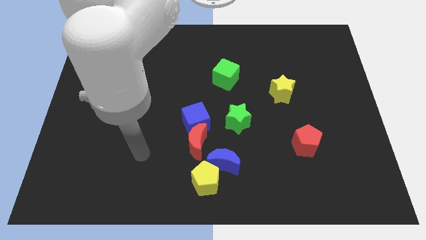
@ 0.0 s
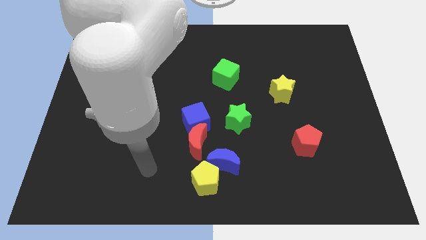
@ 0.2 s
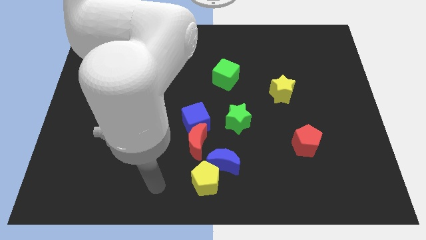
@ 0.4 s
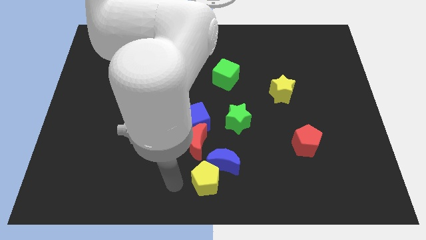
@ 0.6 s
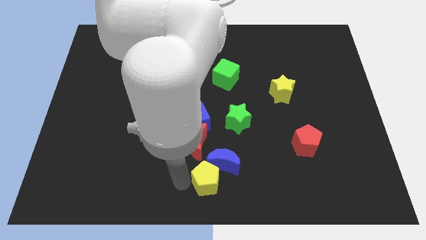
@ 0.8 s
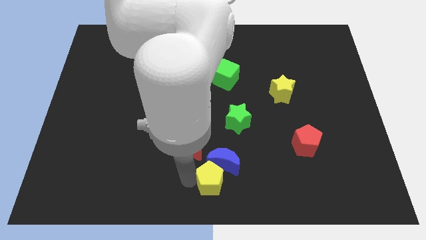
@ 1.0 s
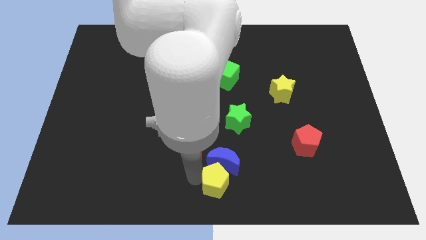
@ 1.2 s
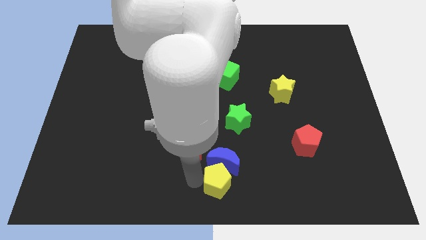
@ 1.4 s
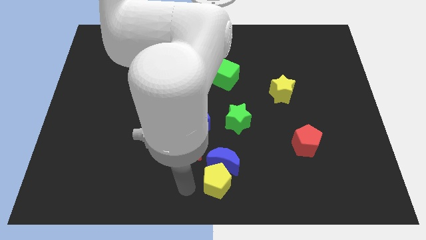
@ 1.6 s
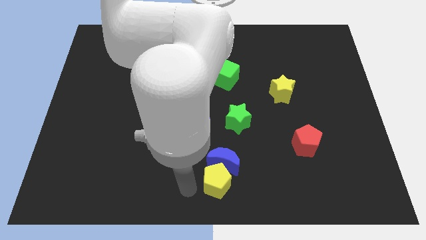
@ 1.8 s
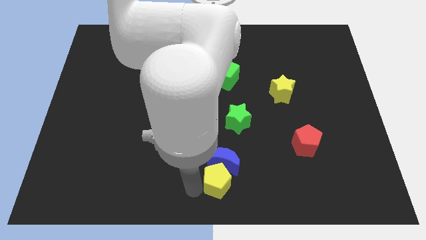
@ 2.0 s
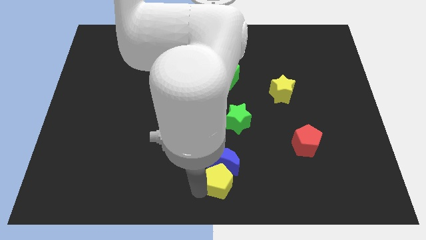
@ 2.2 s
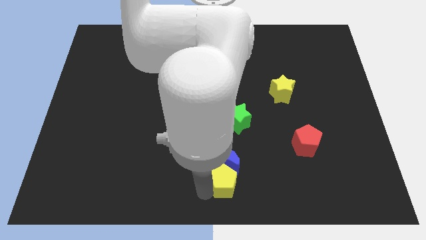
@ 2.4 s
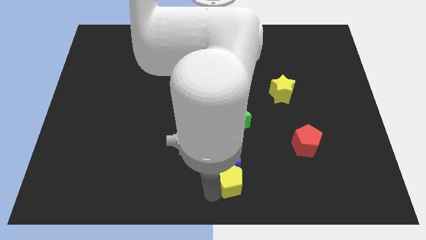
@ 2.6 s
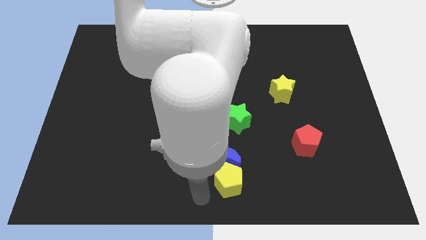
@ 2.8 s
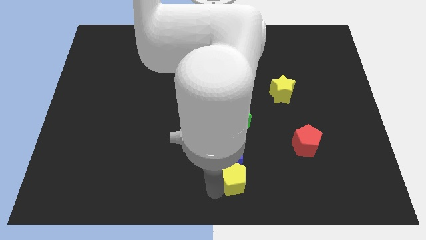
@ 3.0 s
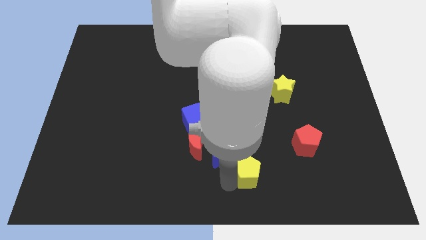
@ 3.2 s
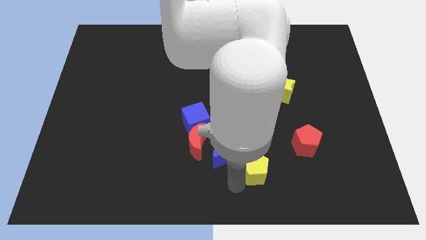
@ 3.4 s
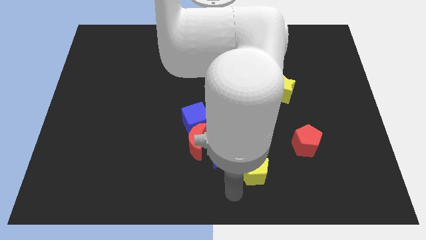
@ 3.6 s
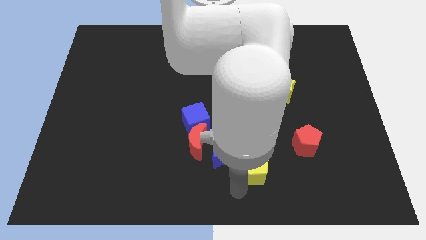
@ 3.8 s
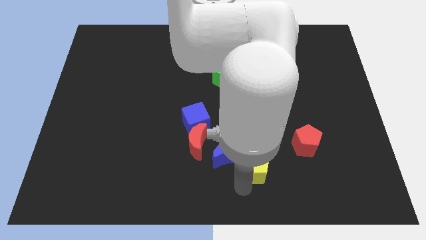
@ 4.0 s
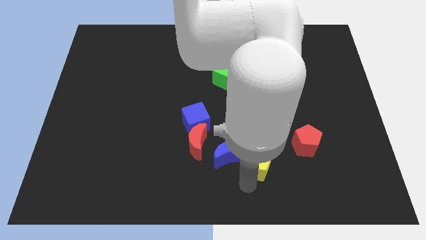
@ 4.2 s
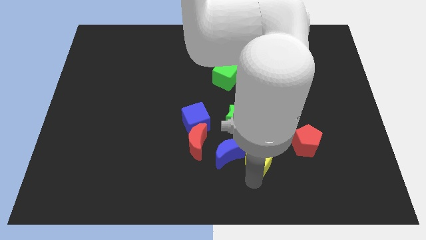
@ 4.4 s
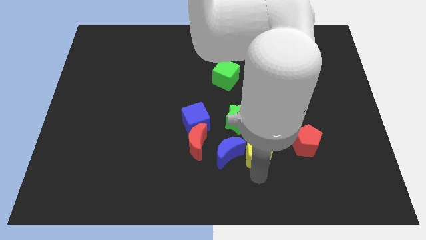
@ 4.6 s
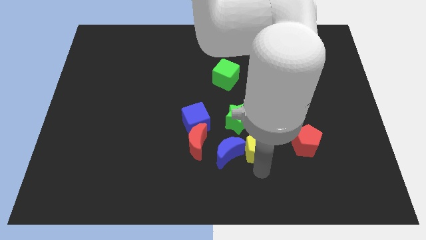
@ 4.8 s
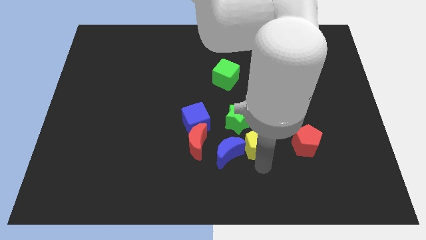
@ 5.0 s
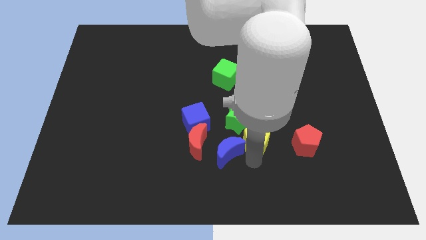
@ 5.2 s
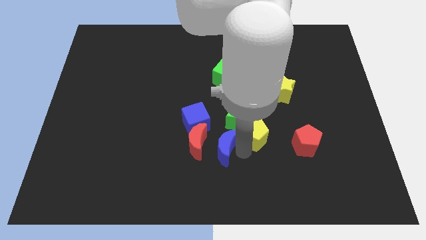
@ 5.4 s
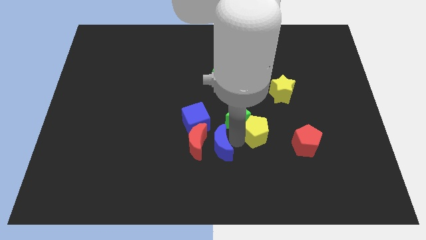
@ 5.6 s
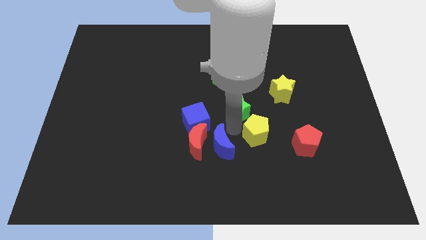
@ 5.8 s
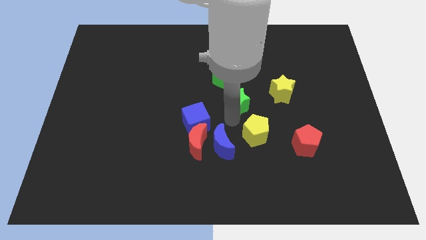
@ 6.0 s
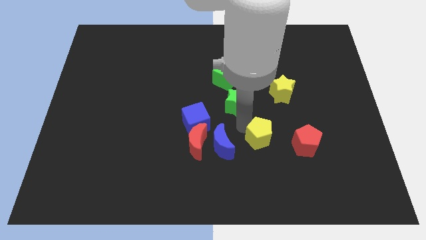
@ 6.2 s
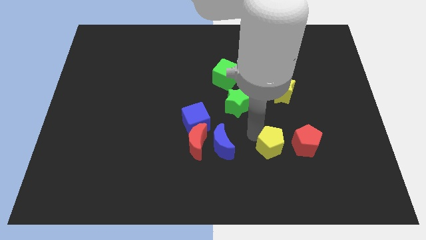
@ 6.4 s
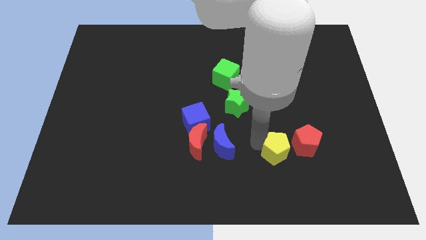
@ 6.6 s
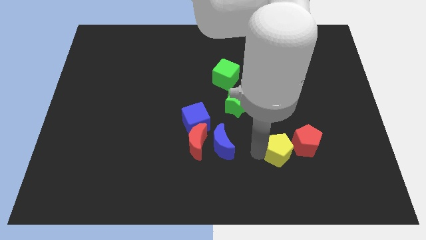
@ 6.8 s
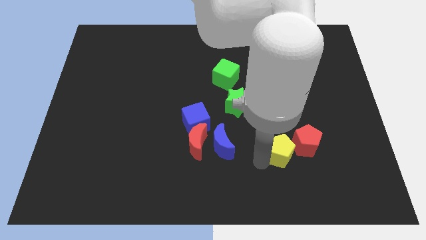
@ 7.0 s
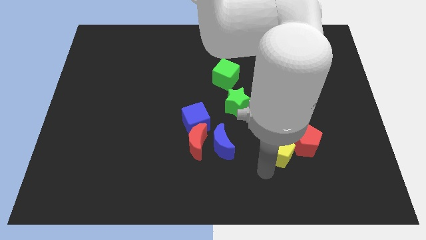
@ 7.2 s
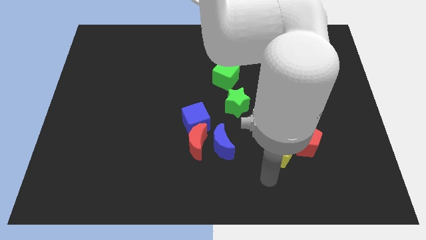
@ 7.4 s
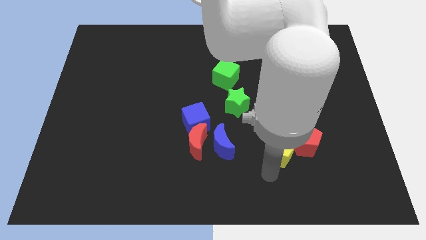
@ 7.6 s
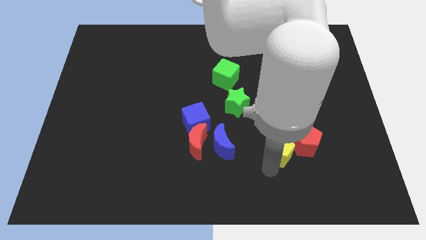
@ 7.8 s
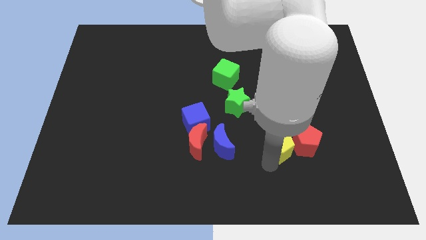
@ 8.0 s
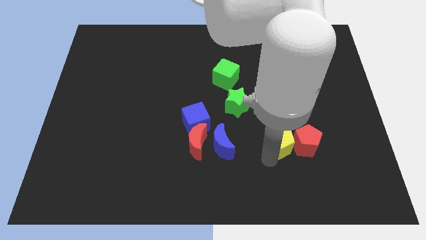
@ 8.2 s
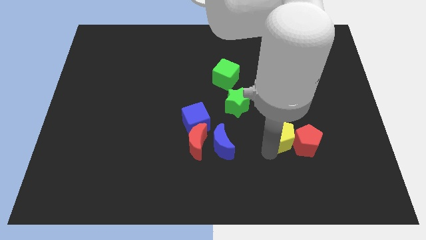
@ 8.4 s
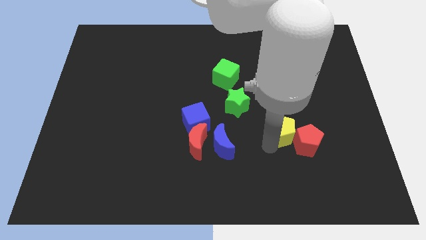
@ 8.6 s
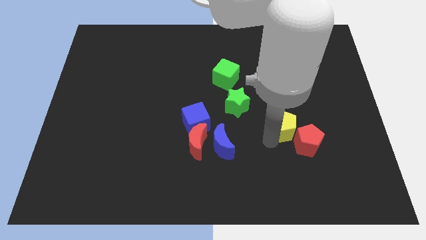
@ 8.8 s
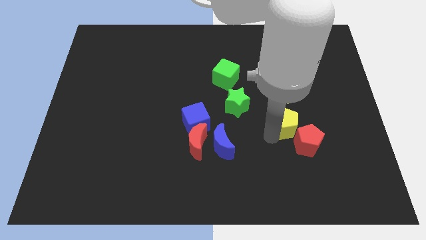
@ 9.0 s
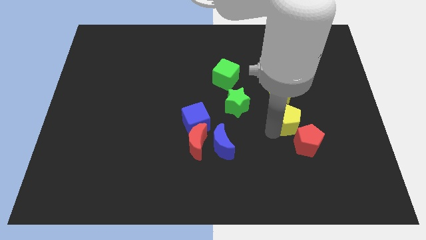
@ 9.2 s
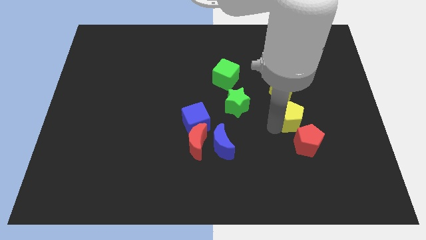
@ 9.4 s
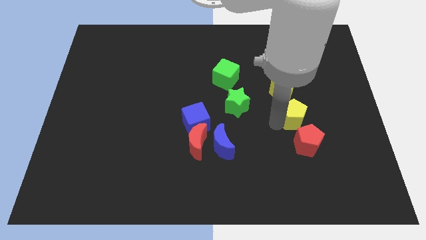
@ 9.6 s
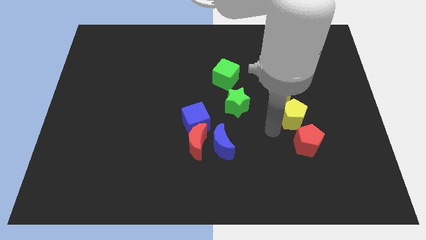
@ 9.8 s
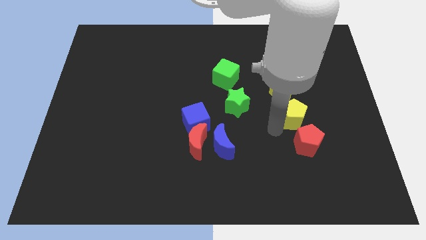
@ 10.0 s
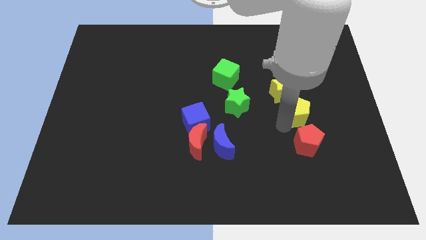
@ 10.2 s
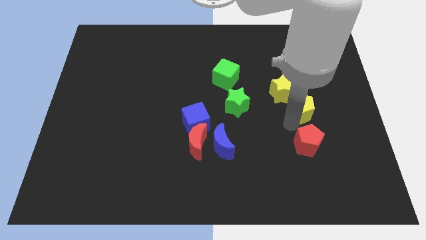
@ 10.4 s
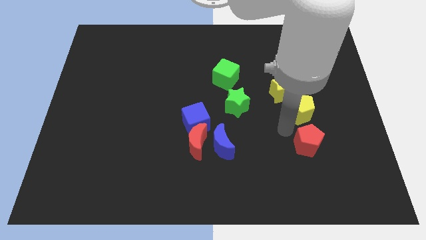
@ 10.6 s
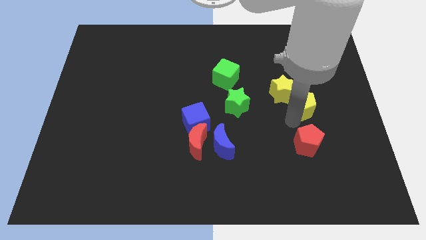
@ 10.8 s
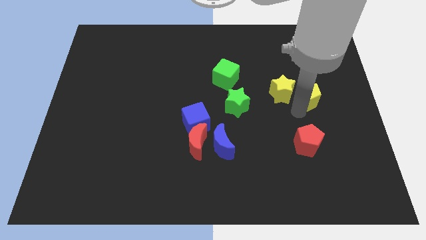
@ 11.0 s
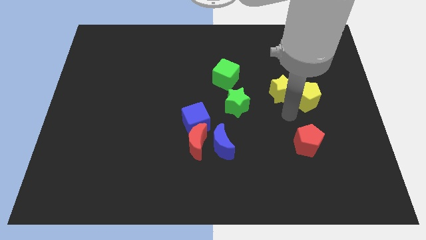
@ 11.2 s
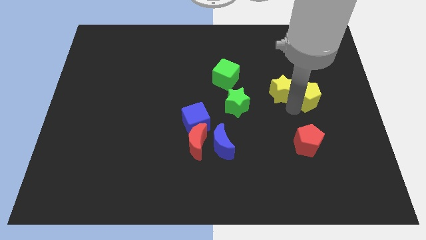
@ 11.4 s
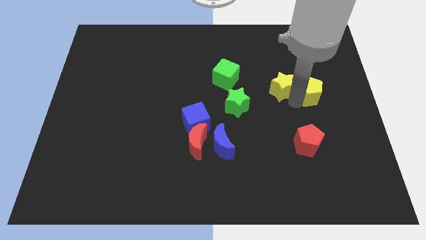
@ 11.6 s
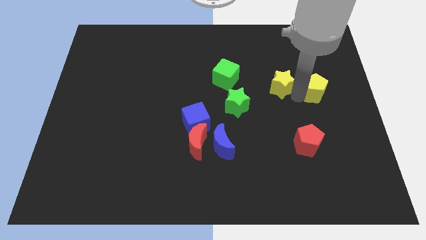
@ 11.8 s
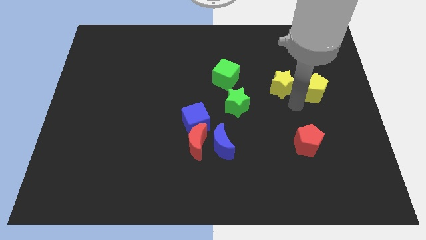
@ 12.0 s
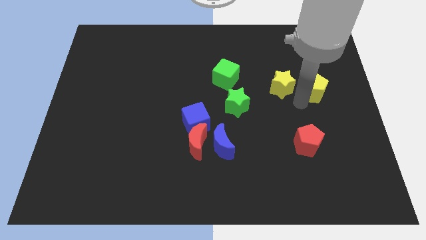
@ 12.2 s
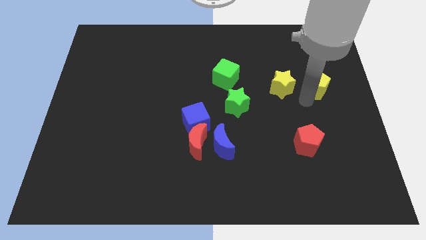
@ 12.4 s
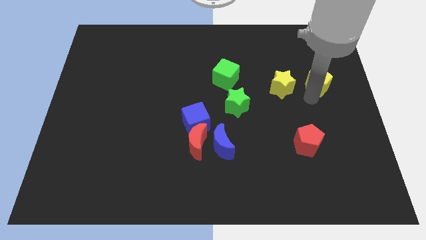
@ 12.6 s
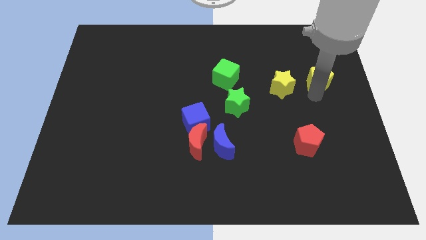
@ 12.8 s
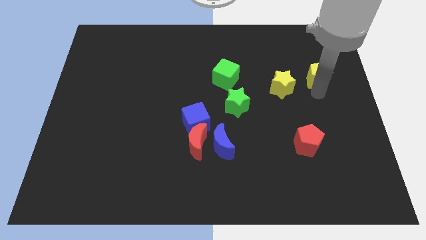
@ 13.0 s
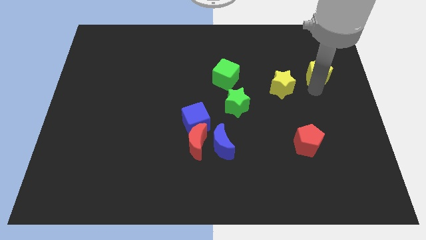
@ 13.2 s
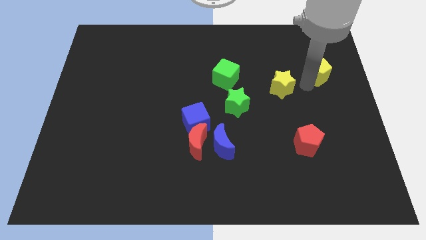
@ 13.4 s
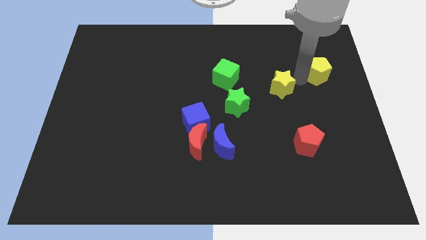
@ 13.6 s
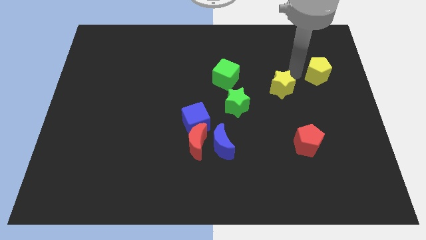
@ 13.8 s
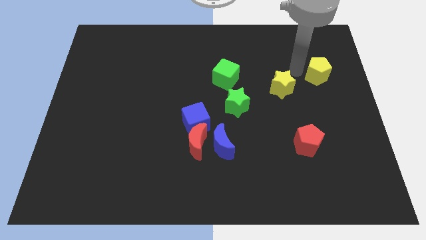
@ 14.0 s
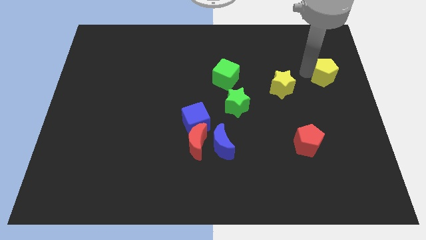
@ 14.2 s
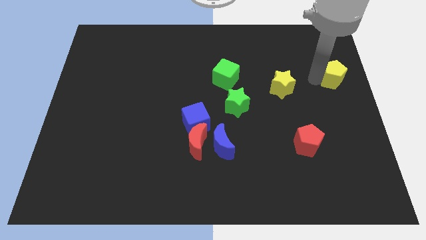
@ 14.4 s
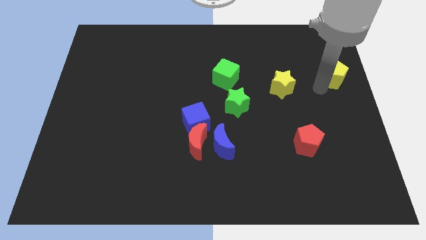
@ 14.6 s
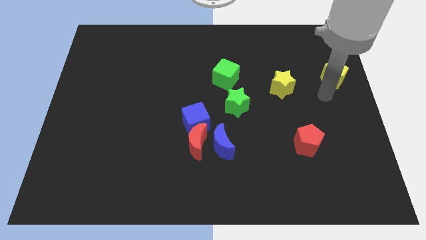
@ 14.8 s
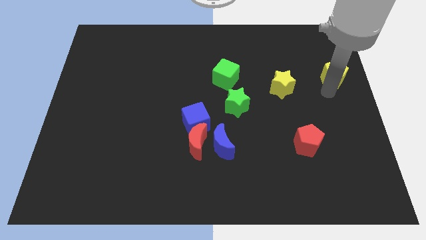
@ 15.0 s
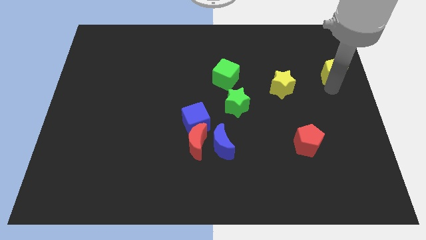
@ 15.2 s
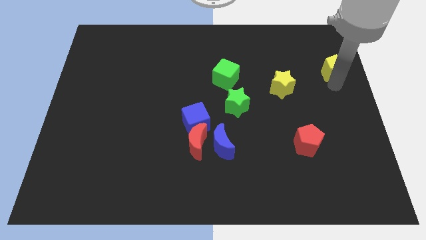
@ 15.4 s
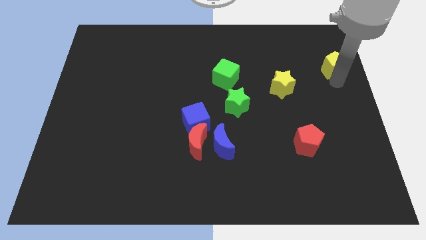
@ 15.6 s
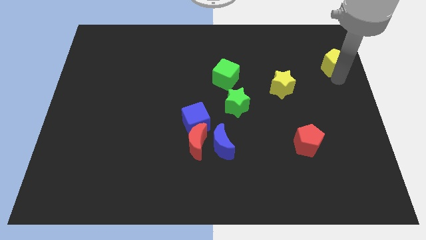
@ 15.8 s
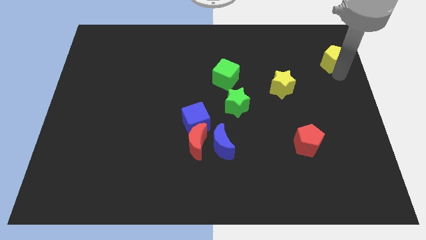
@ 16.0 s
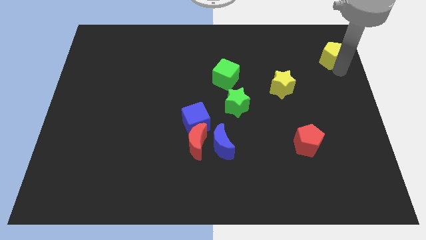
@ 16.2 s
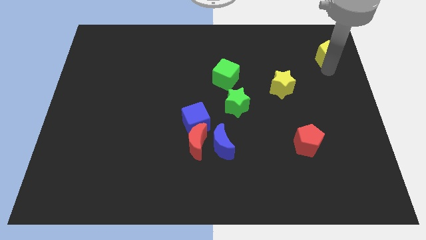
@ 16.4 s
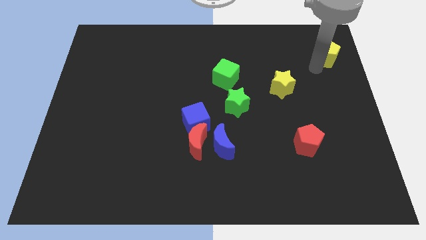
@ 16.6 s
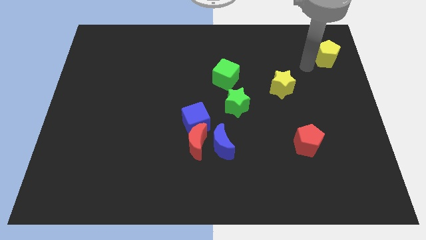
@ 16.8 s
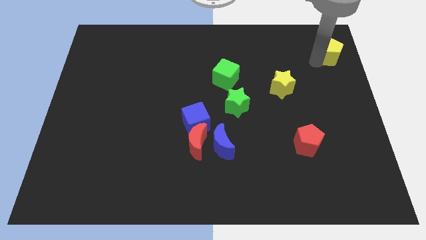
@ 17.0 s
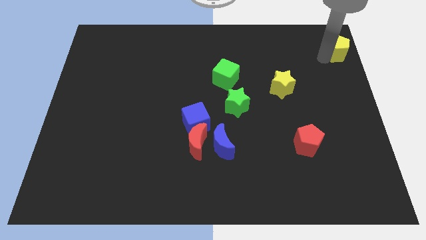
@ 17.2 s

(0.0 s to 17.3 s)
push the yellow pentagon to the upper right corner
